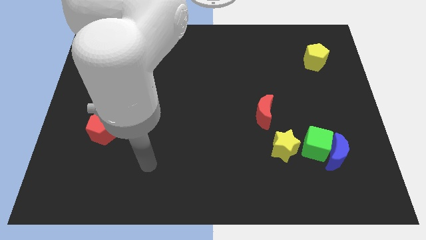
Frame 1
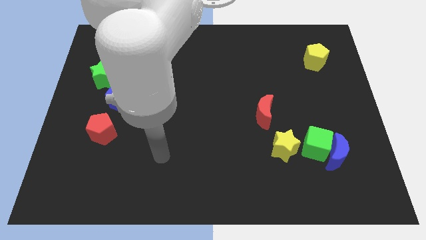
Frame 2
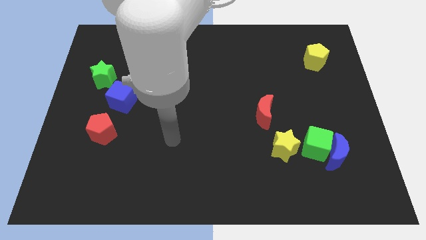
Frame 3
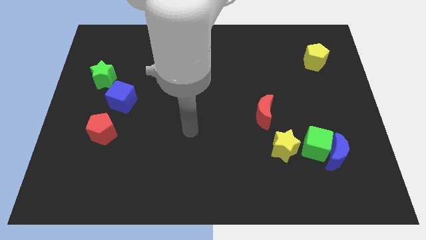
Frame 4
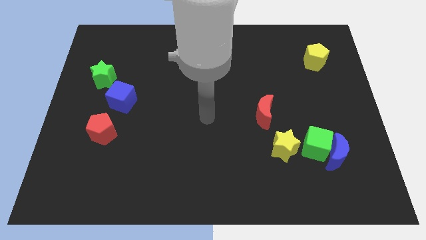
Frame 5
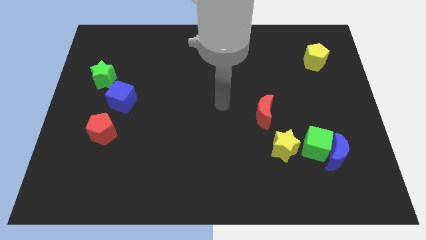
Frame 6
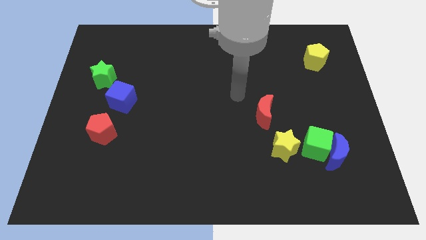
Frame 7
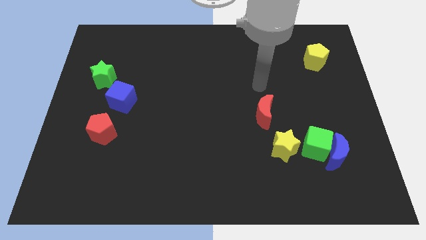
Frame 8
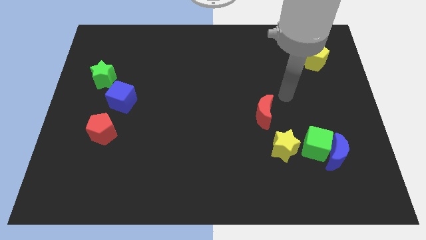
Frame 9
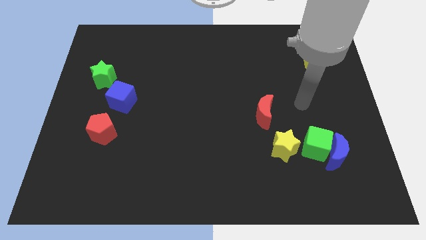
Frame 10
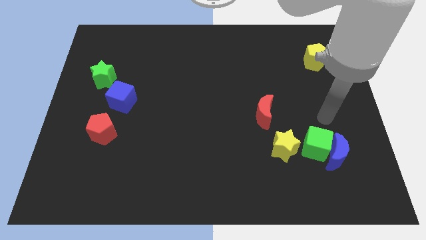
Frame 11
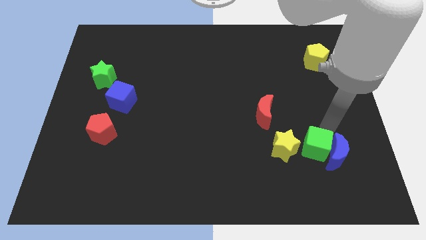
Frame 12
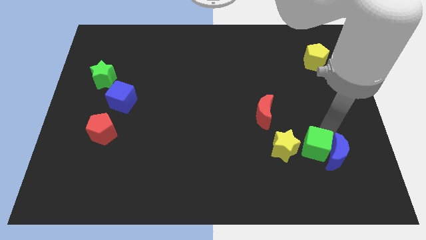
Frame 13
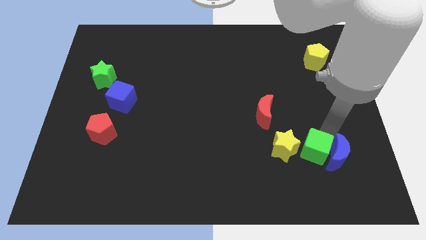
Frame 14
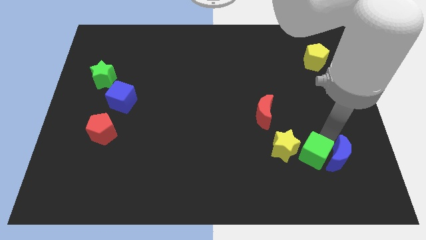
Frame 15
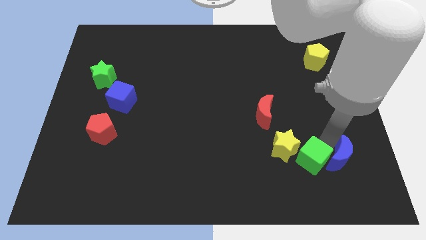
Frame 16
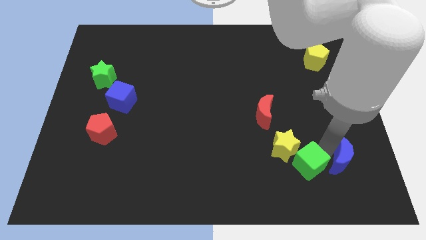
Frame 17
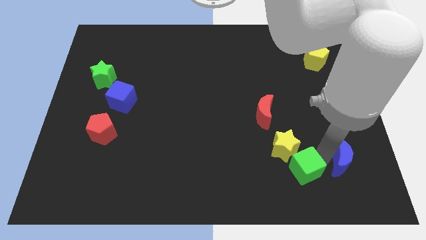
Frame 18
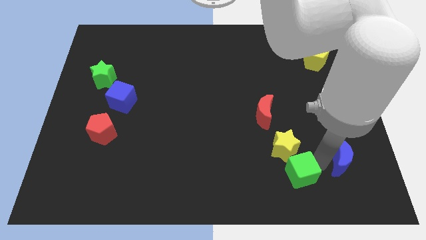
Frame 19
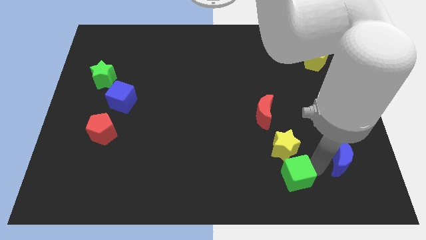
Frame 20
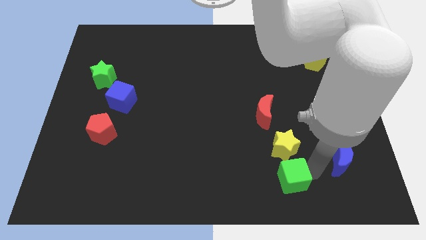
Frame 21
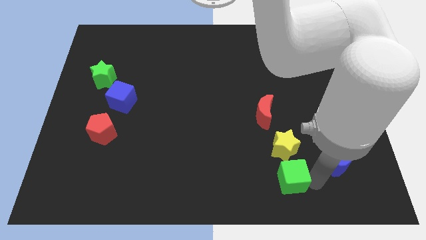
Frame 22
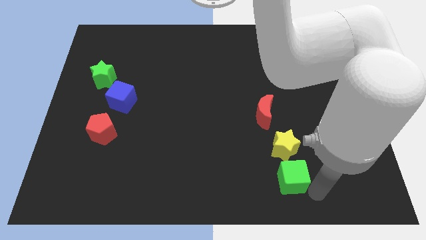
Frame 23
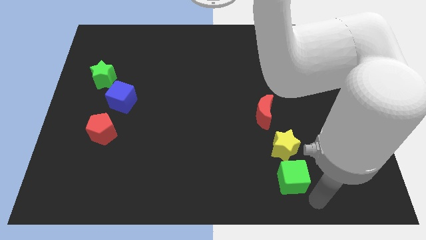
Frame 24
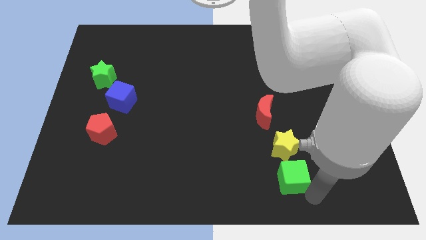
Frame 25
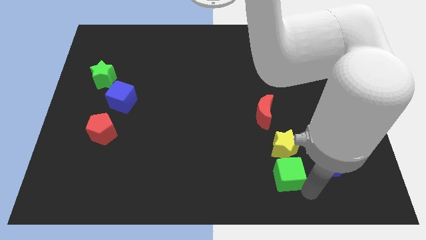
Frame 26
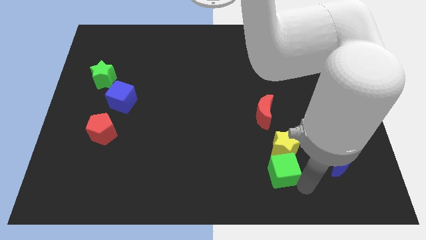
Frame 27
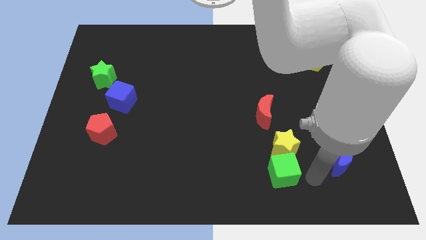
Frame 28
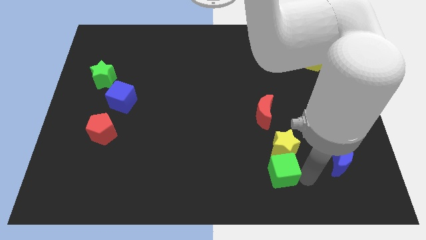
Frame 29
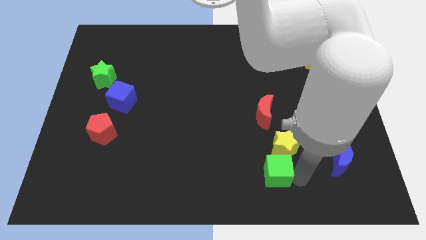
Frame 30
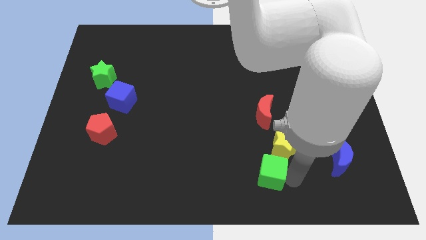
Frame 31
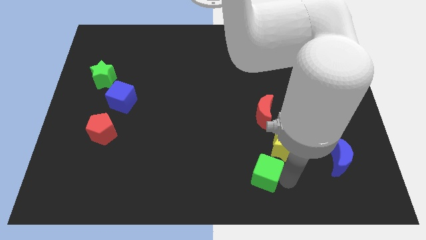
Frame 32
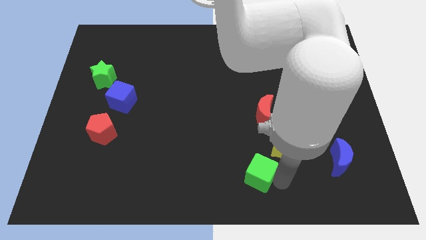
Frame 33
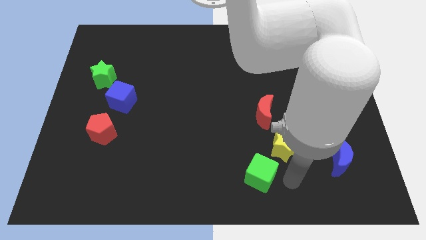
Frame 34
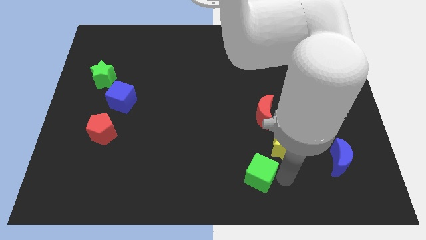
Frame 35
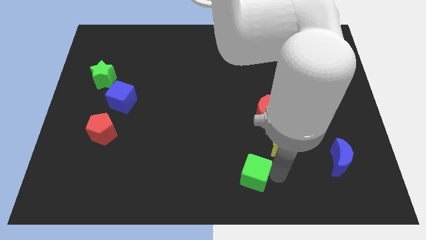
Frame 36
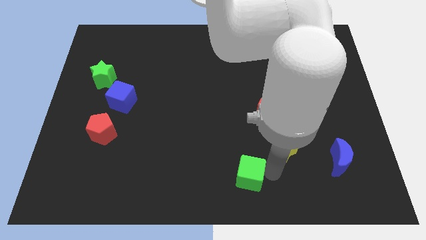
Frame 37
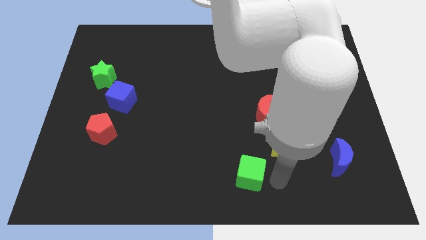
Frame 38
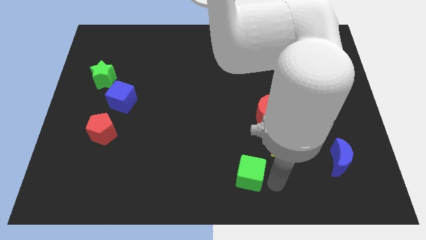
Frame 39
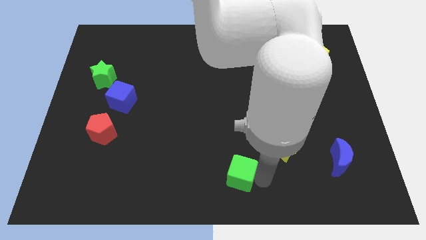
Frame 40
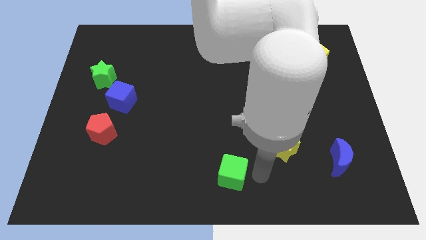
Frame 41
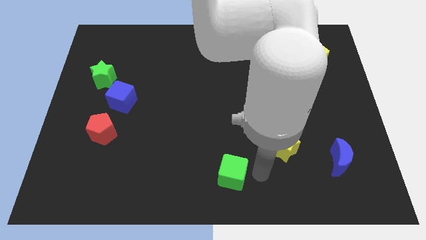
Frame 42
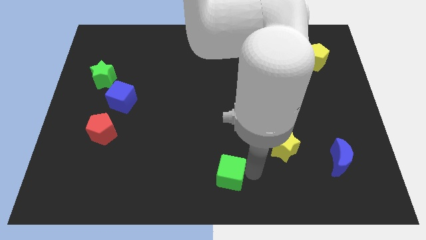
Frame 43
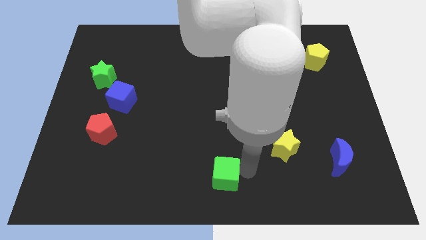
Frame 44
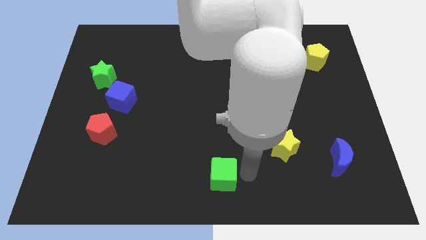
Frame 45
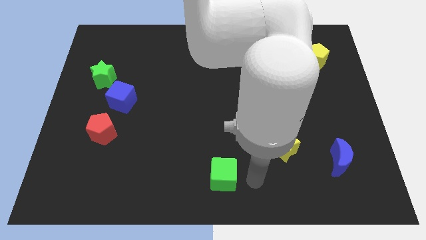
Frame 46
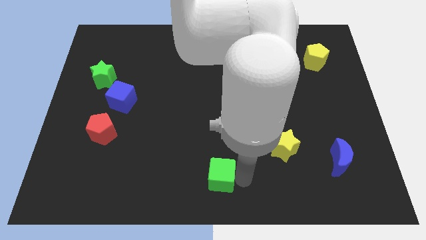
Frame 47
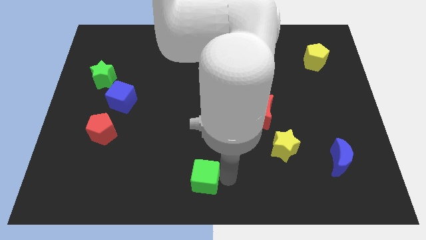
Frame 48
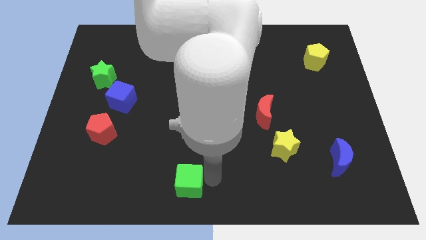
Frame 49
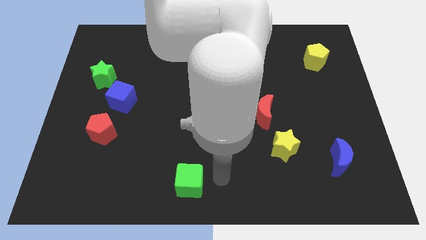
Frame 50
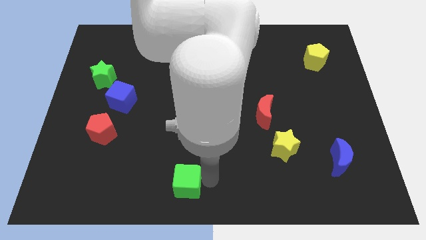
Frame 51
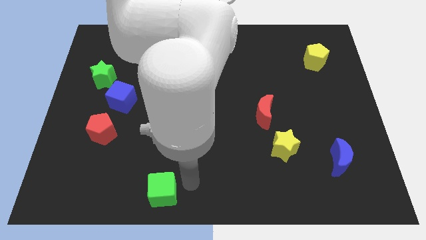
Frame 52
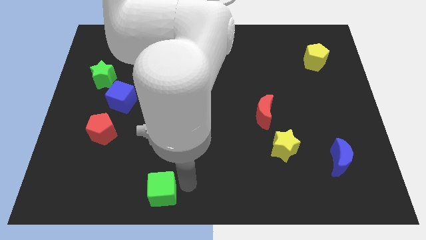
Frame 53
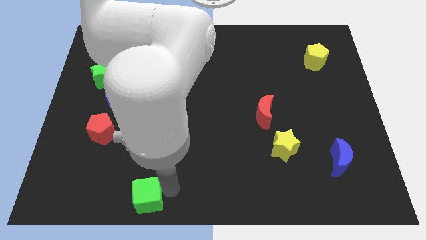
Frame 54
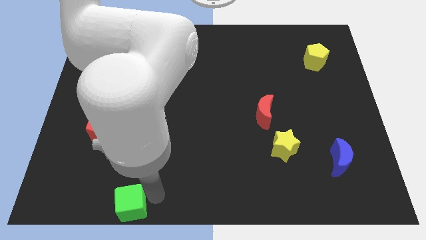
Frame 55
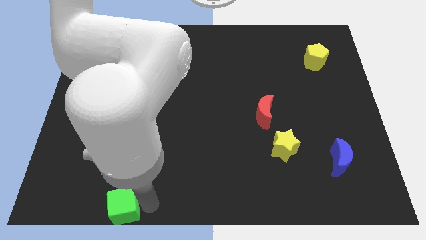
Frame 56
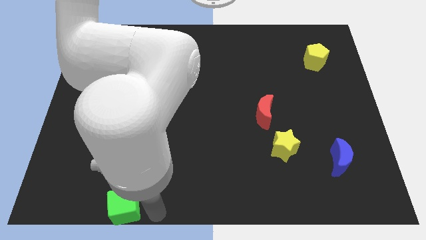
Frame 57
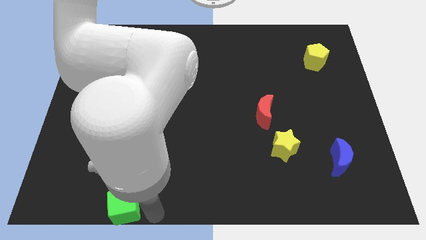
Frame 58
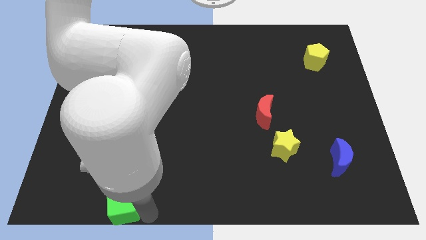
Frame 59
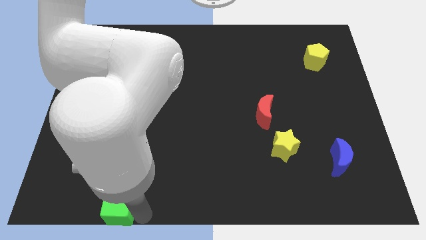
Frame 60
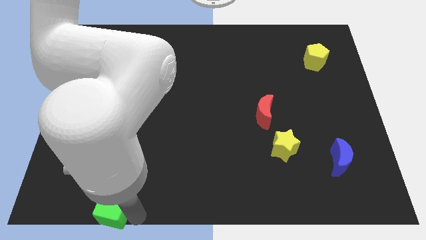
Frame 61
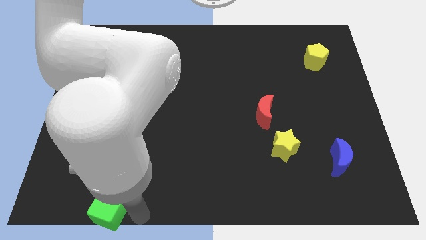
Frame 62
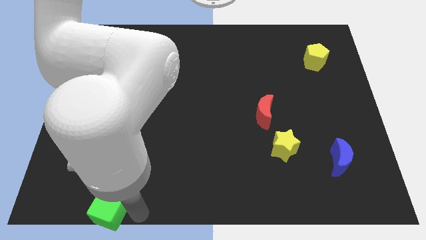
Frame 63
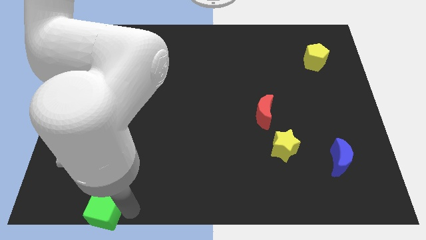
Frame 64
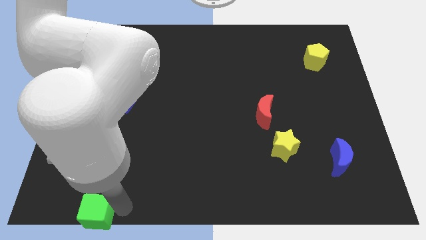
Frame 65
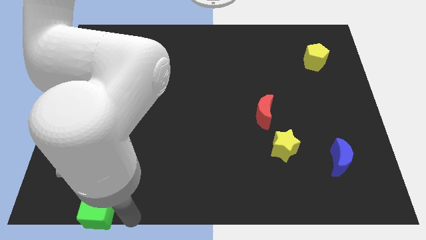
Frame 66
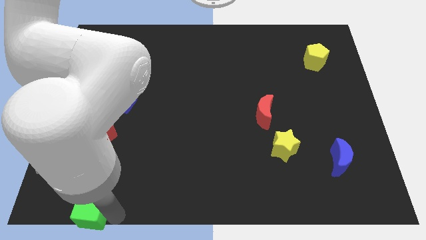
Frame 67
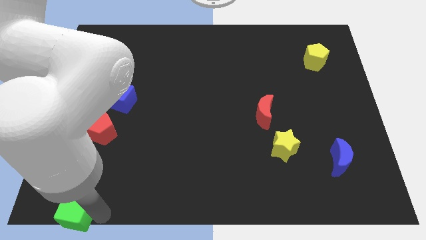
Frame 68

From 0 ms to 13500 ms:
push the green cube to the lower left corner
